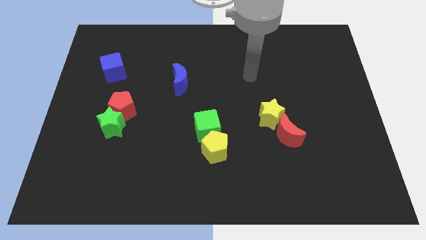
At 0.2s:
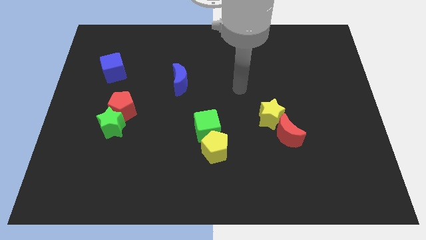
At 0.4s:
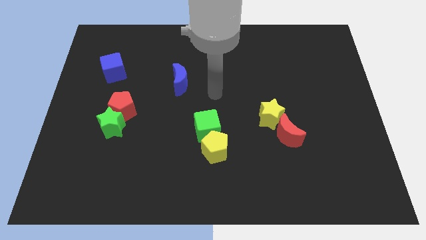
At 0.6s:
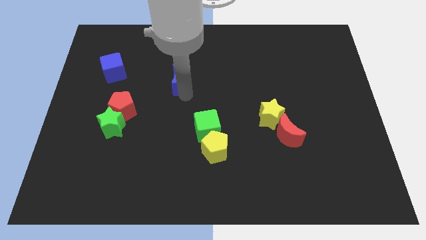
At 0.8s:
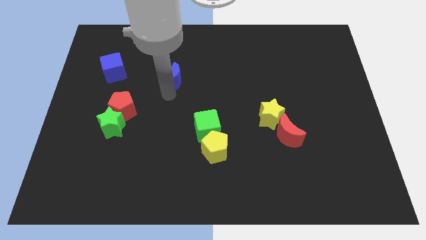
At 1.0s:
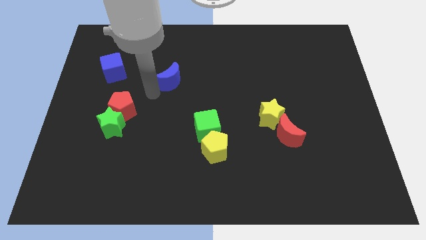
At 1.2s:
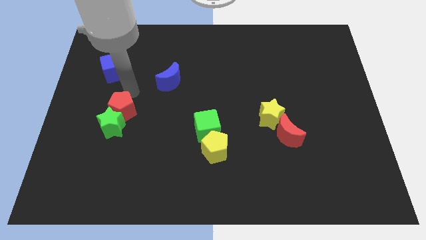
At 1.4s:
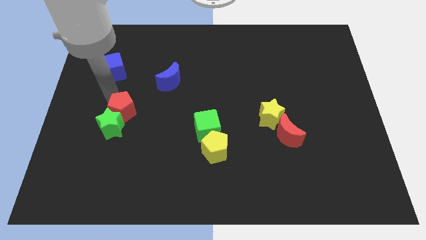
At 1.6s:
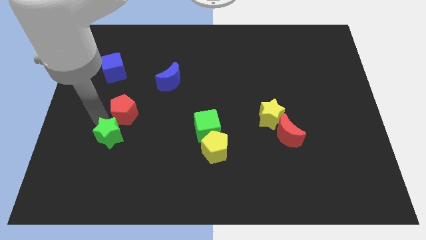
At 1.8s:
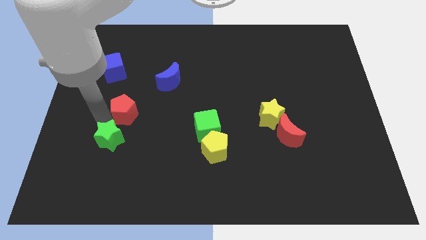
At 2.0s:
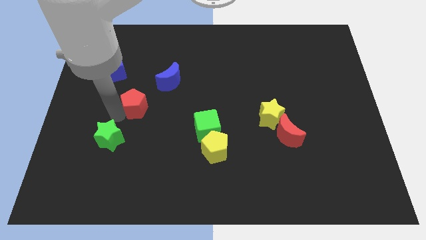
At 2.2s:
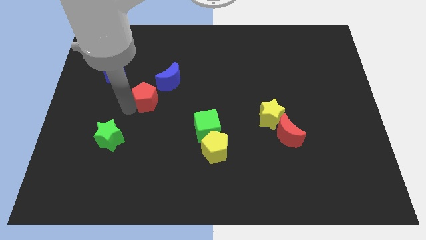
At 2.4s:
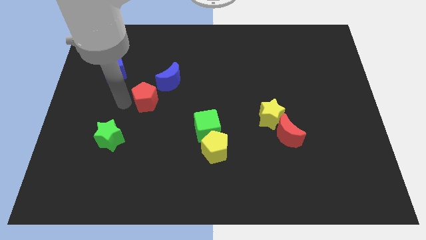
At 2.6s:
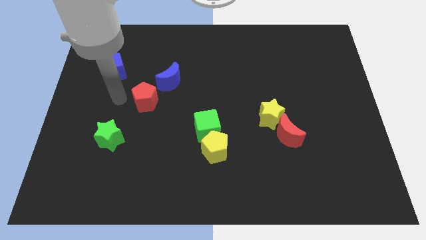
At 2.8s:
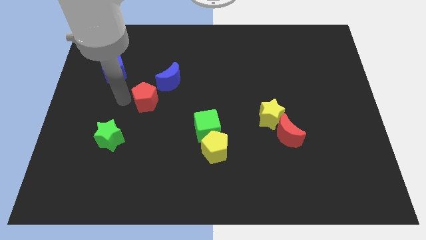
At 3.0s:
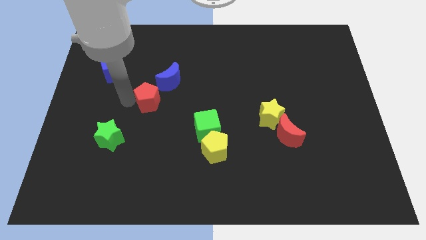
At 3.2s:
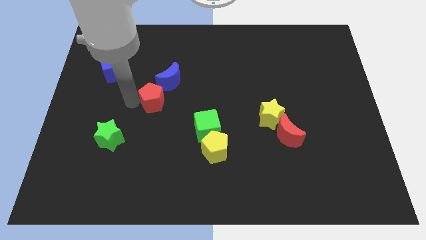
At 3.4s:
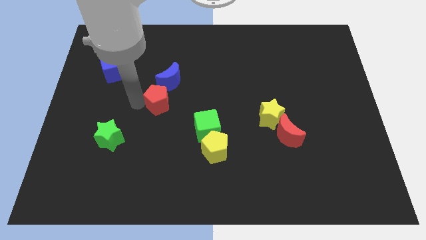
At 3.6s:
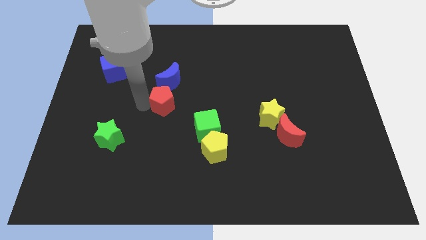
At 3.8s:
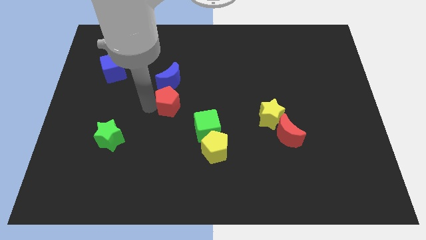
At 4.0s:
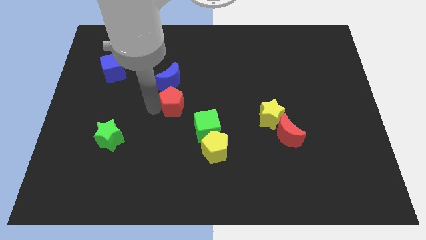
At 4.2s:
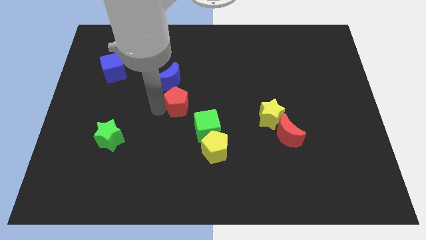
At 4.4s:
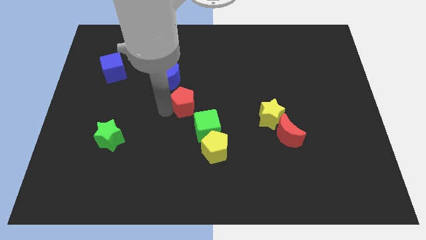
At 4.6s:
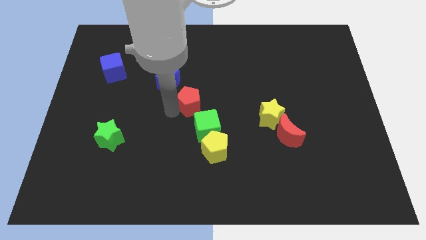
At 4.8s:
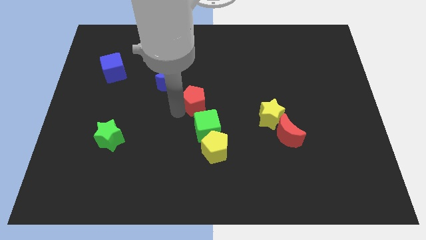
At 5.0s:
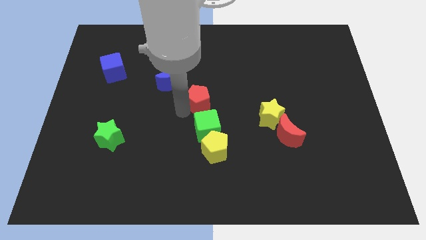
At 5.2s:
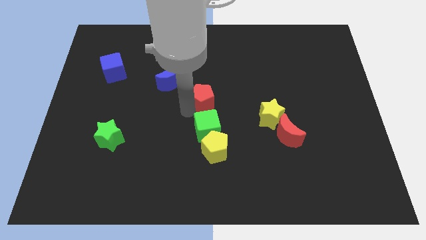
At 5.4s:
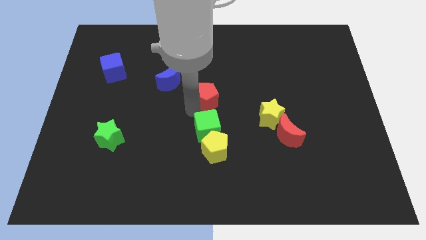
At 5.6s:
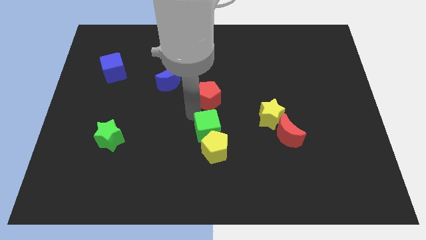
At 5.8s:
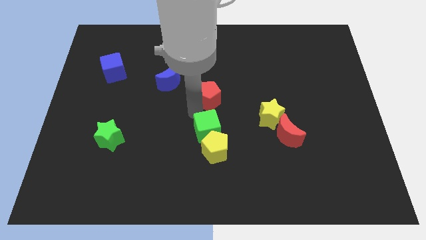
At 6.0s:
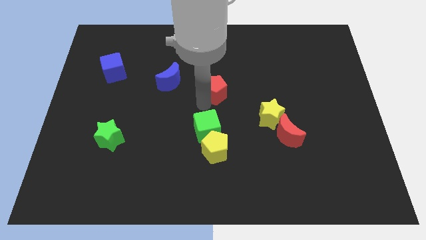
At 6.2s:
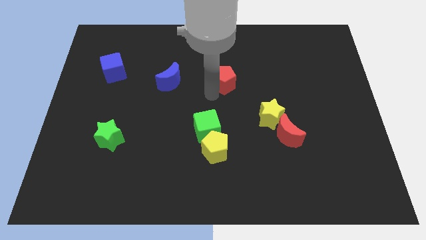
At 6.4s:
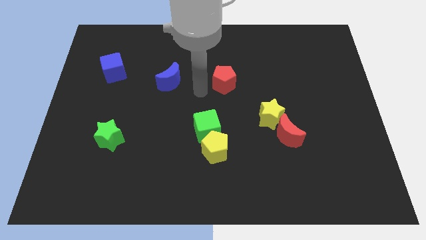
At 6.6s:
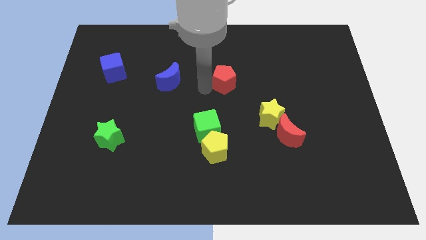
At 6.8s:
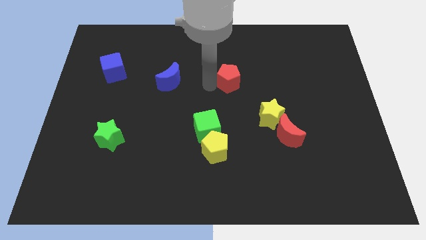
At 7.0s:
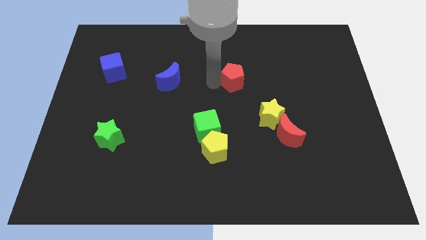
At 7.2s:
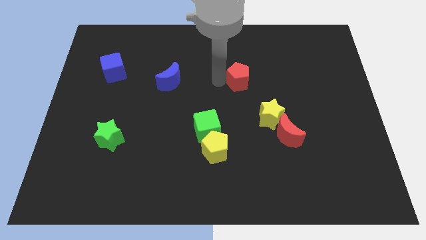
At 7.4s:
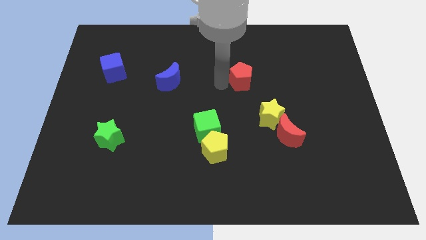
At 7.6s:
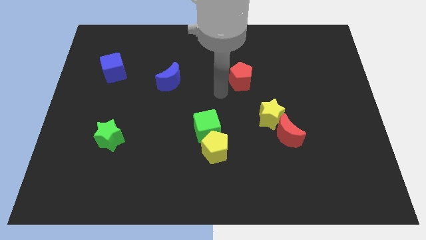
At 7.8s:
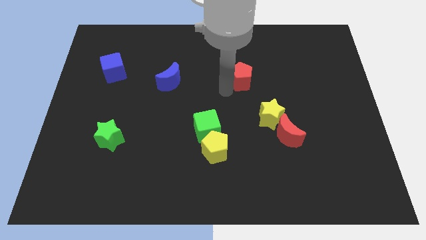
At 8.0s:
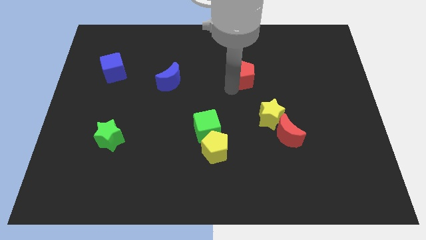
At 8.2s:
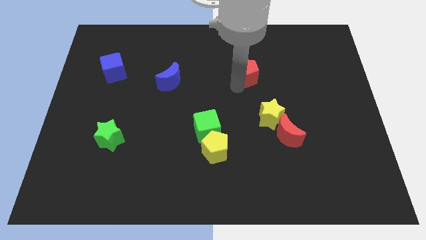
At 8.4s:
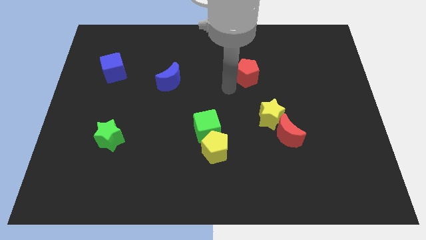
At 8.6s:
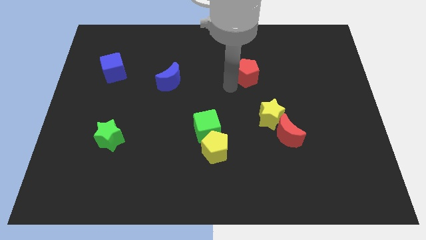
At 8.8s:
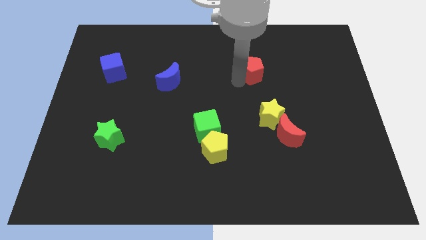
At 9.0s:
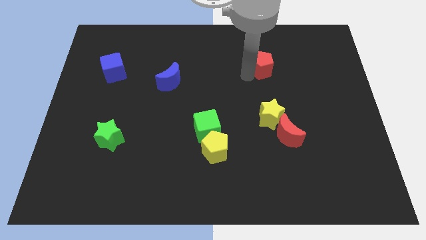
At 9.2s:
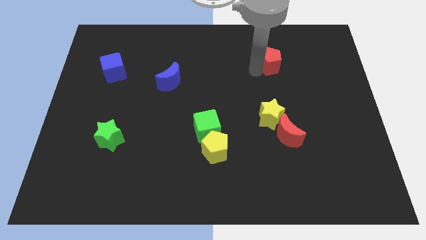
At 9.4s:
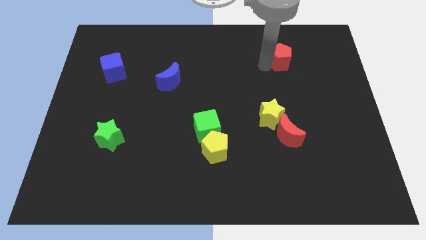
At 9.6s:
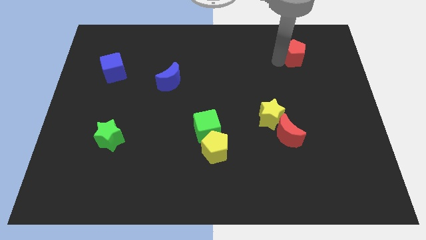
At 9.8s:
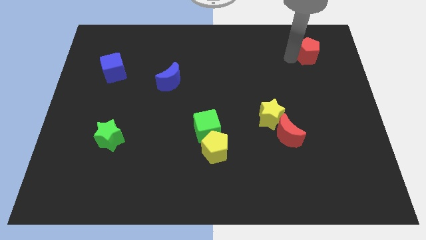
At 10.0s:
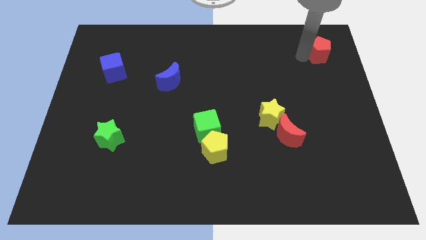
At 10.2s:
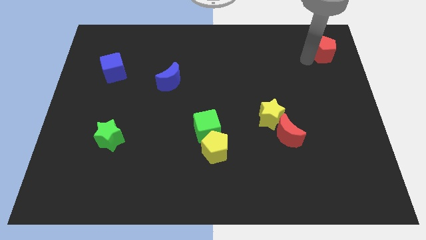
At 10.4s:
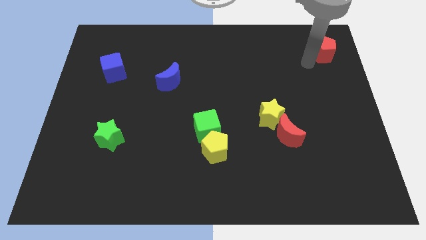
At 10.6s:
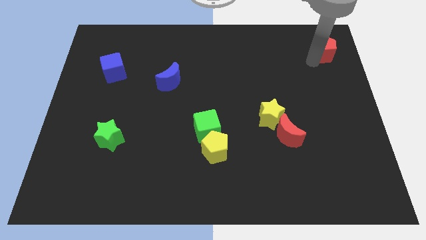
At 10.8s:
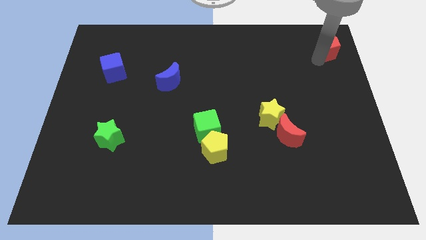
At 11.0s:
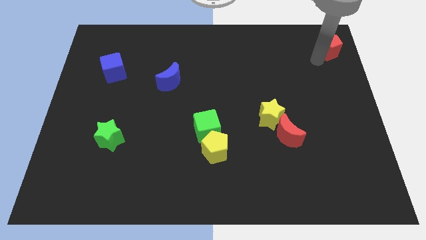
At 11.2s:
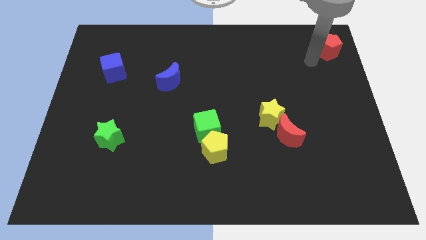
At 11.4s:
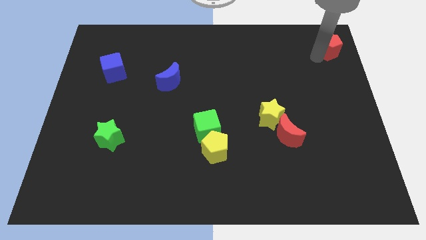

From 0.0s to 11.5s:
push the red pentagon to the upper right corner
